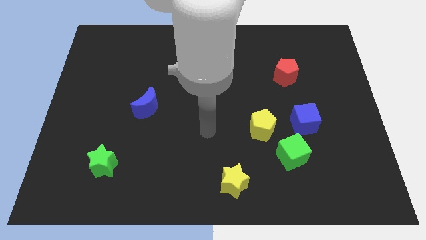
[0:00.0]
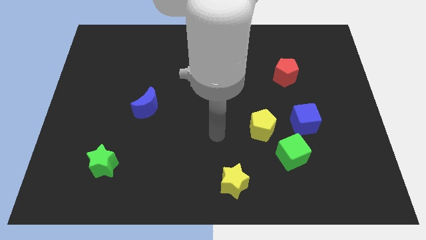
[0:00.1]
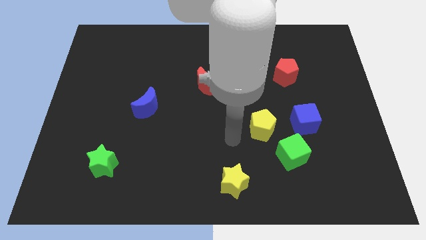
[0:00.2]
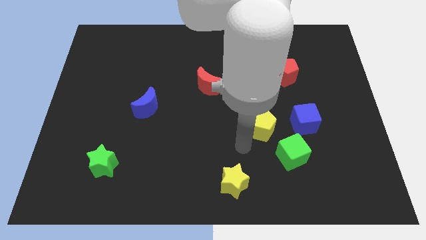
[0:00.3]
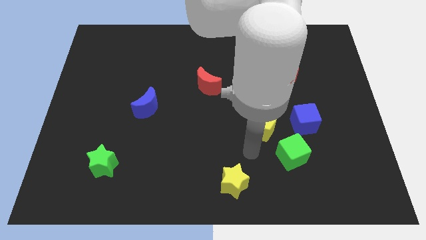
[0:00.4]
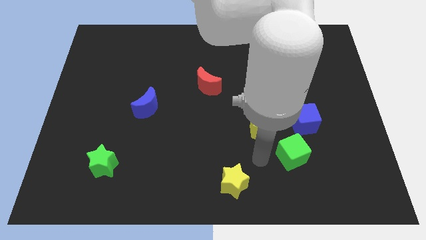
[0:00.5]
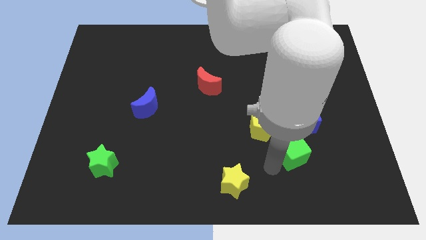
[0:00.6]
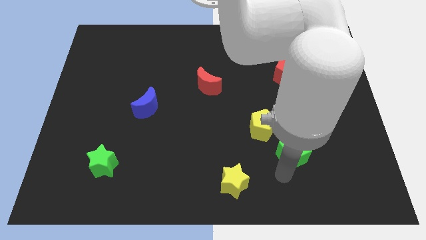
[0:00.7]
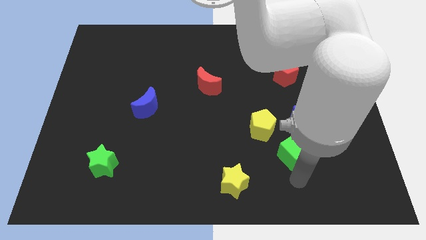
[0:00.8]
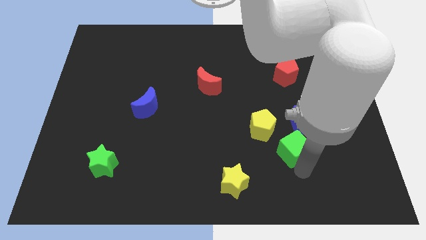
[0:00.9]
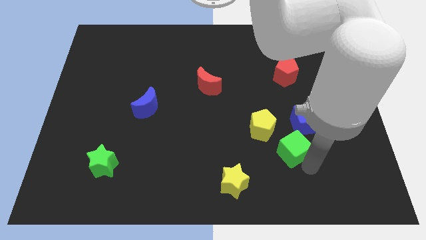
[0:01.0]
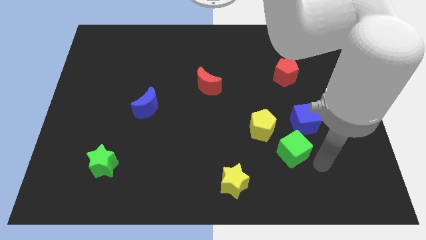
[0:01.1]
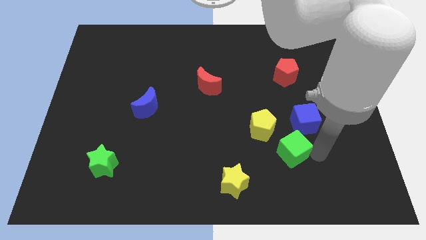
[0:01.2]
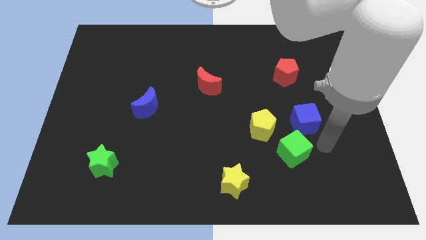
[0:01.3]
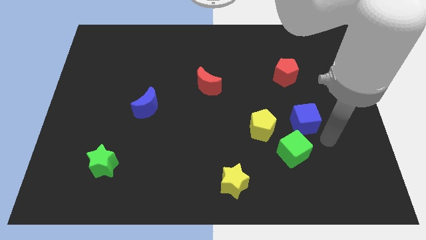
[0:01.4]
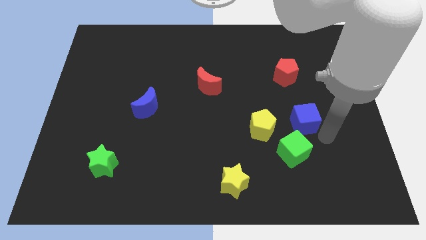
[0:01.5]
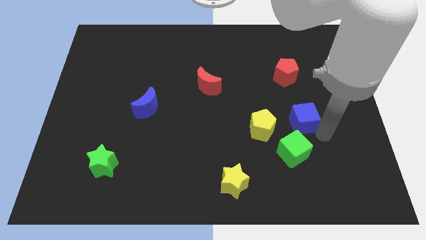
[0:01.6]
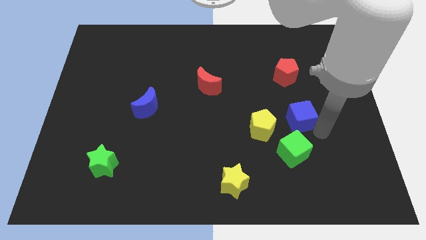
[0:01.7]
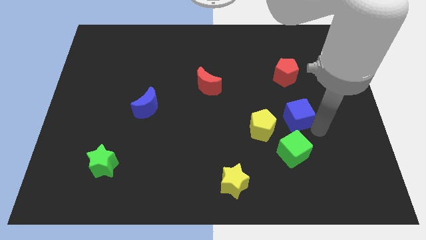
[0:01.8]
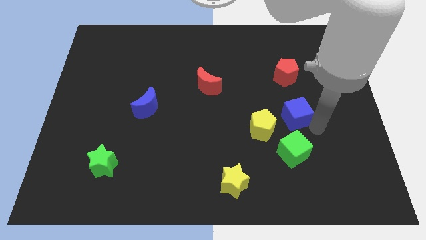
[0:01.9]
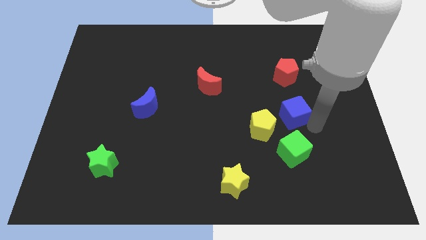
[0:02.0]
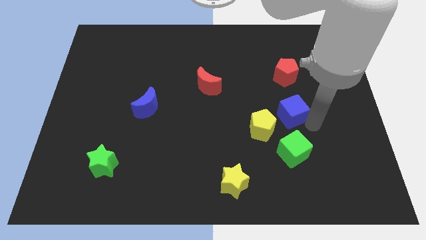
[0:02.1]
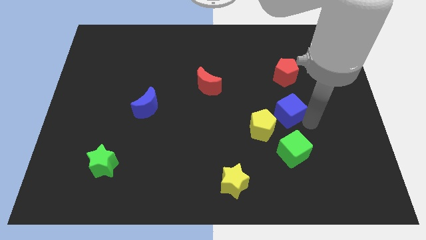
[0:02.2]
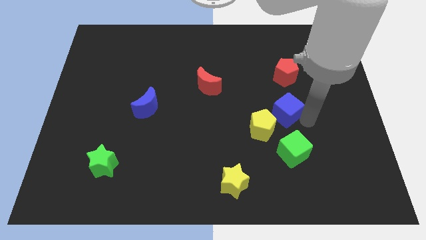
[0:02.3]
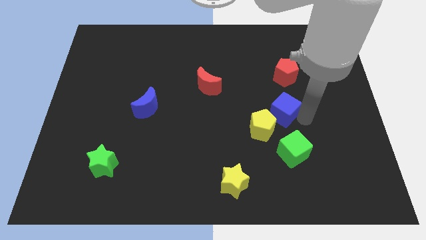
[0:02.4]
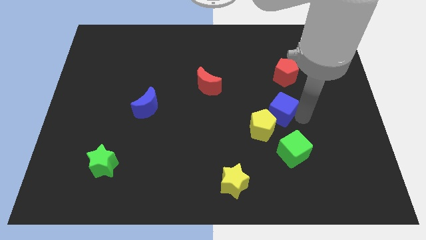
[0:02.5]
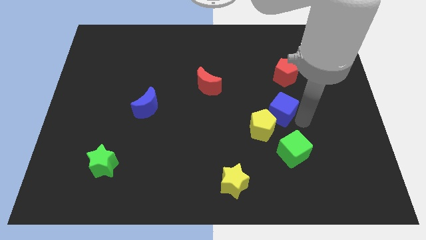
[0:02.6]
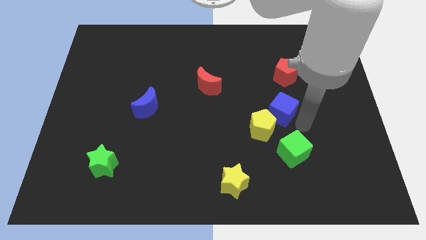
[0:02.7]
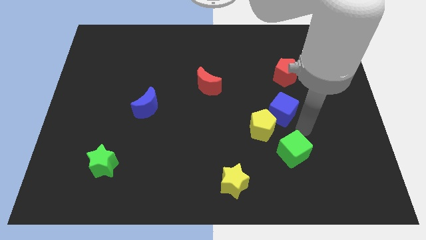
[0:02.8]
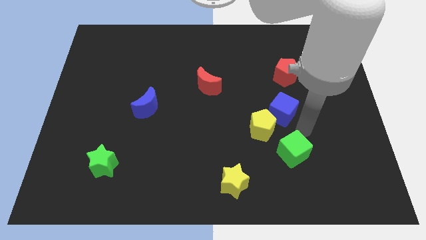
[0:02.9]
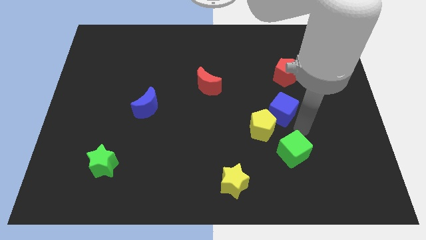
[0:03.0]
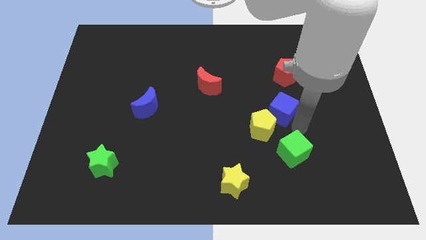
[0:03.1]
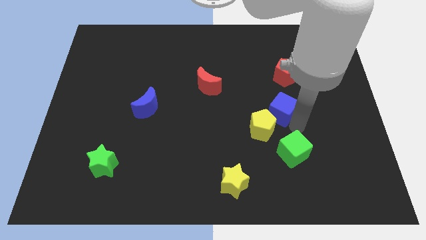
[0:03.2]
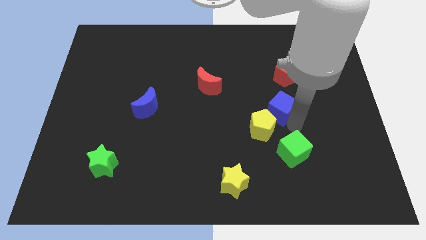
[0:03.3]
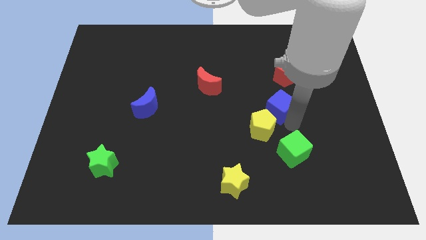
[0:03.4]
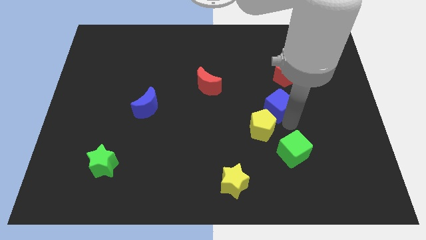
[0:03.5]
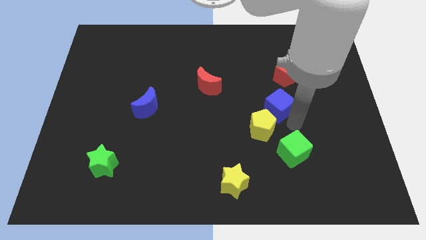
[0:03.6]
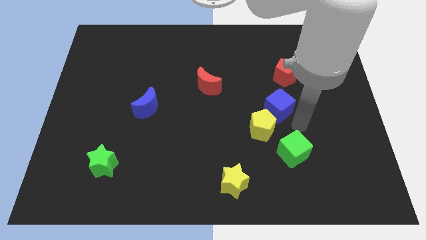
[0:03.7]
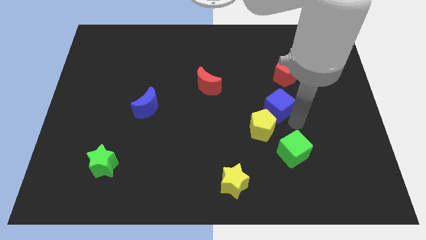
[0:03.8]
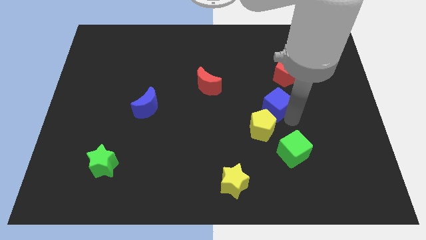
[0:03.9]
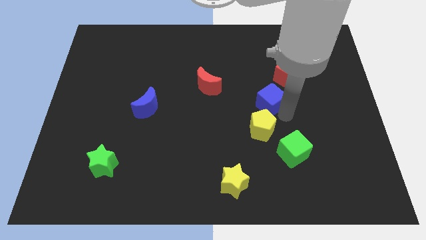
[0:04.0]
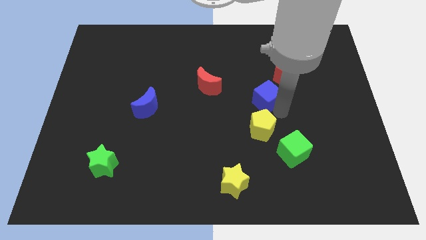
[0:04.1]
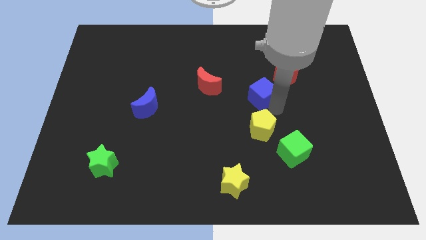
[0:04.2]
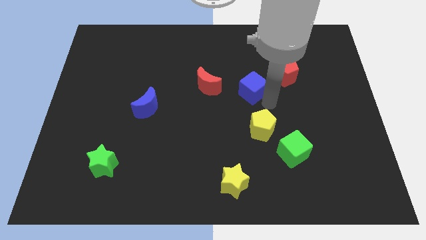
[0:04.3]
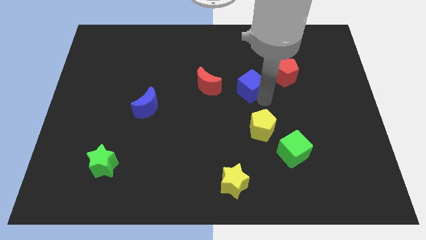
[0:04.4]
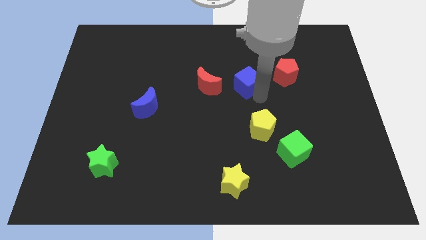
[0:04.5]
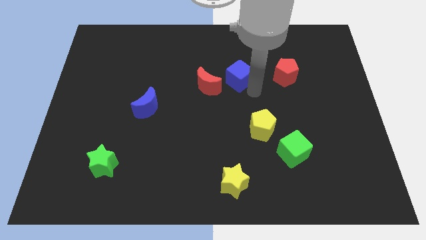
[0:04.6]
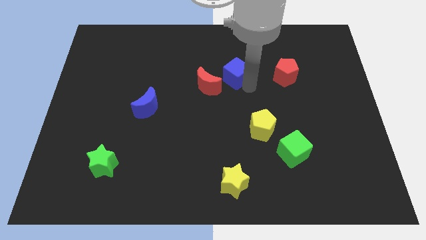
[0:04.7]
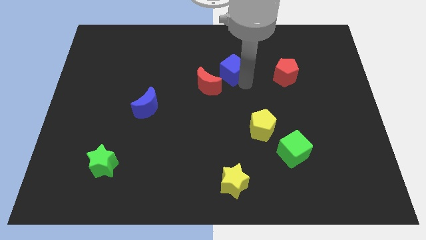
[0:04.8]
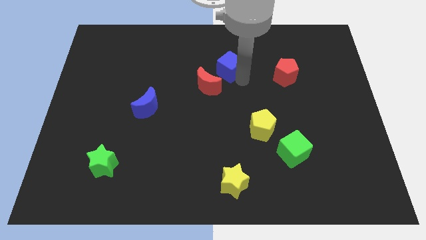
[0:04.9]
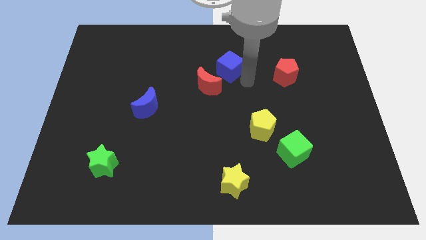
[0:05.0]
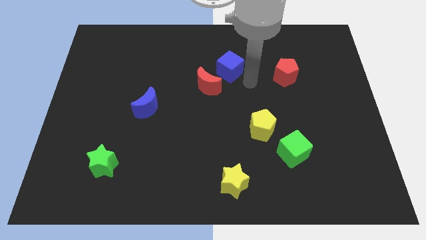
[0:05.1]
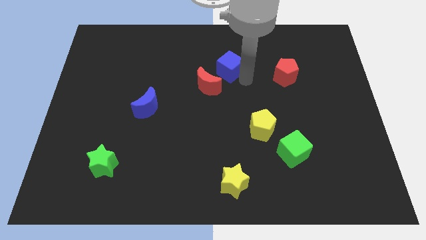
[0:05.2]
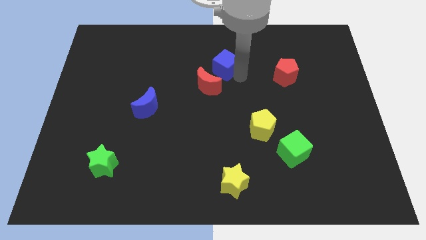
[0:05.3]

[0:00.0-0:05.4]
put the blue cube to the top of the red moon

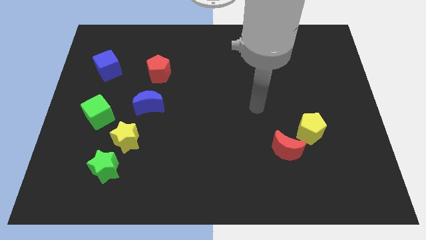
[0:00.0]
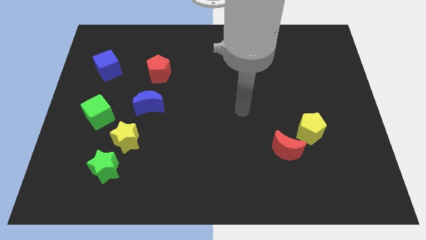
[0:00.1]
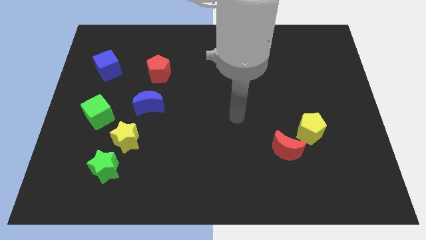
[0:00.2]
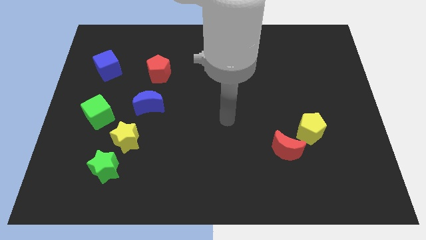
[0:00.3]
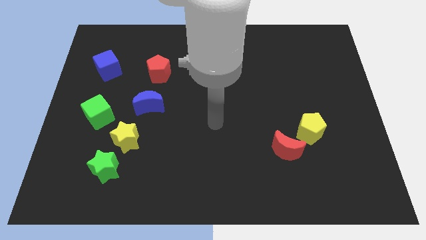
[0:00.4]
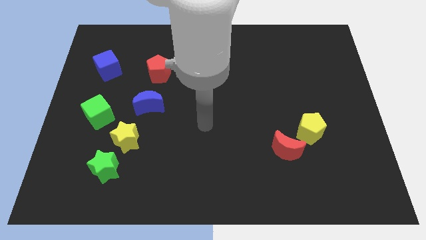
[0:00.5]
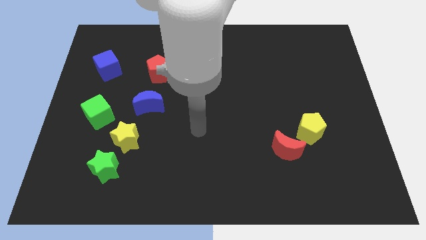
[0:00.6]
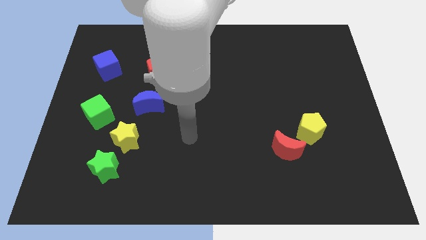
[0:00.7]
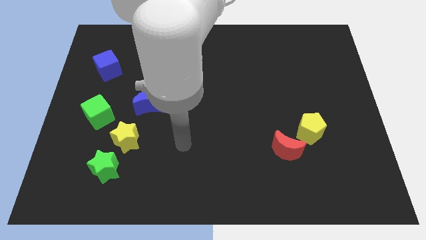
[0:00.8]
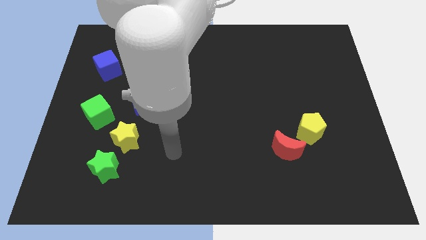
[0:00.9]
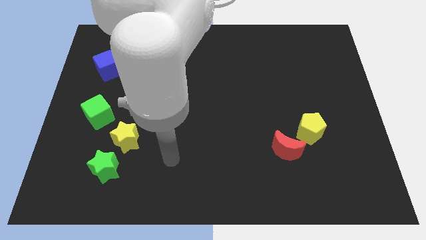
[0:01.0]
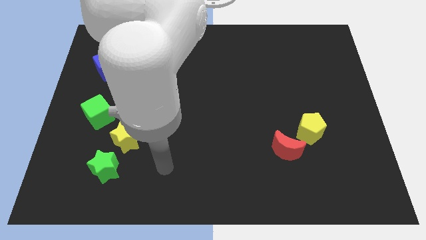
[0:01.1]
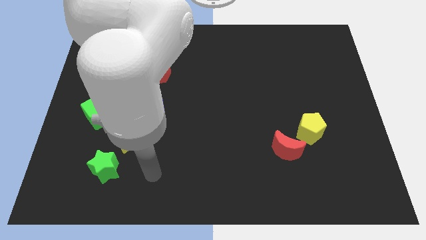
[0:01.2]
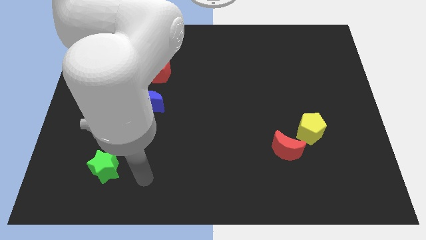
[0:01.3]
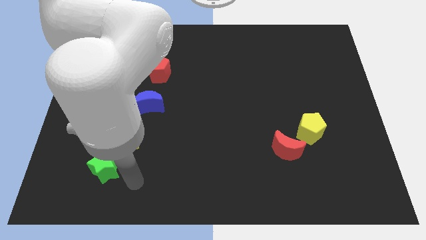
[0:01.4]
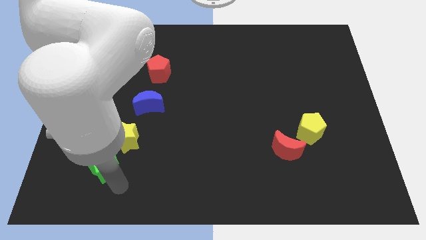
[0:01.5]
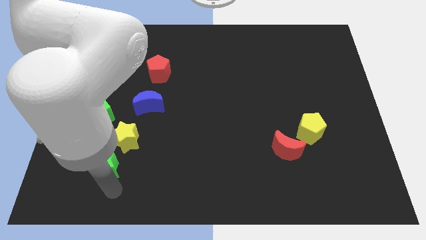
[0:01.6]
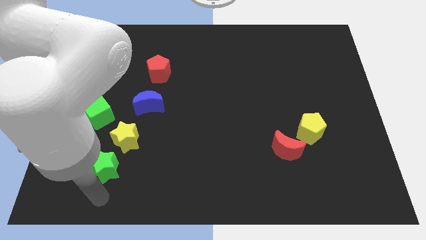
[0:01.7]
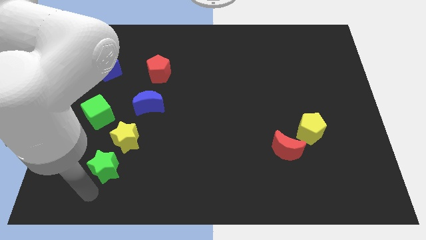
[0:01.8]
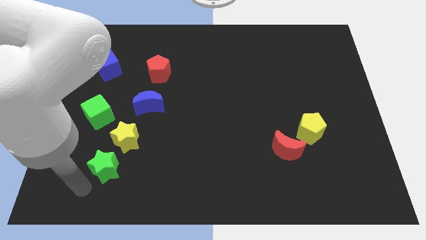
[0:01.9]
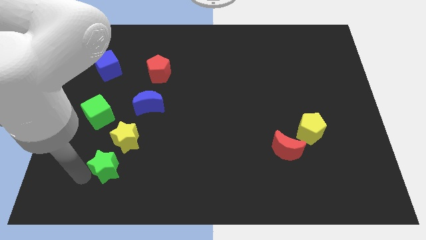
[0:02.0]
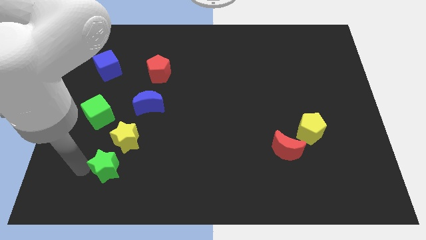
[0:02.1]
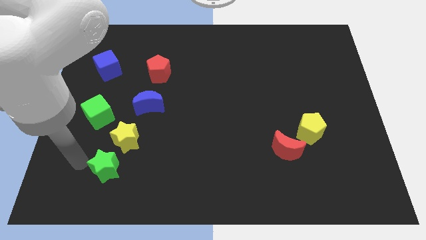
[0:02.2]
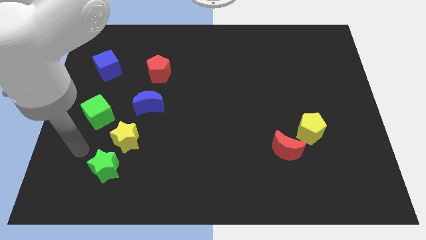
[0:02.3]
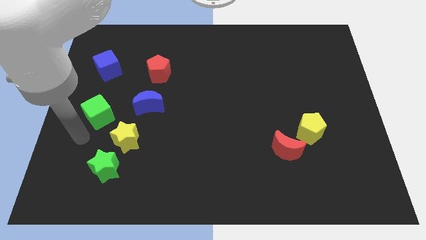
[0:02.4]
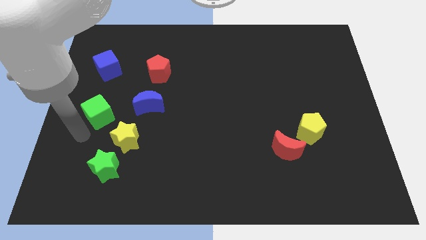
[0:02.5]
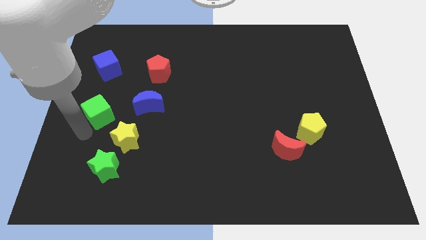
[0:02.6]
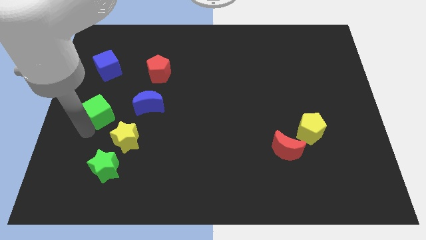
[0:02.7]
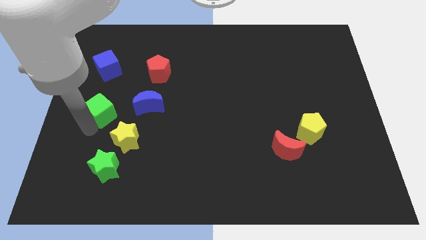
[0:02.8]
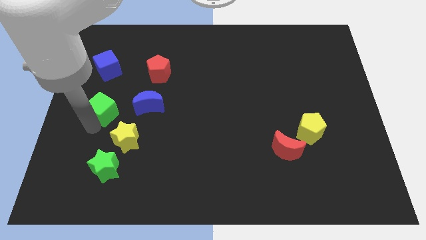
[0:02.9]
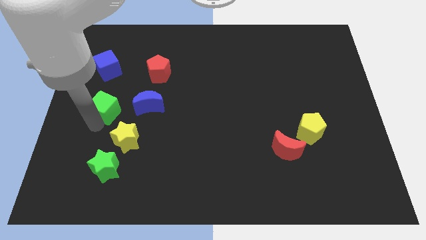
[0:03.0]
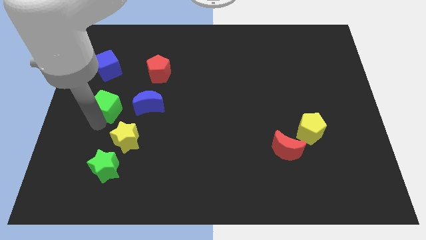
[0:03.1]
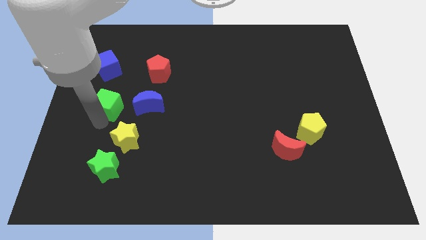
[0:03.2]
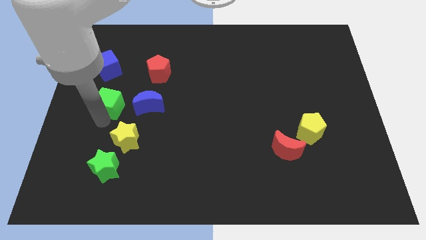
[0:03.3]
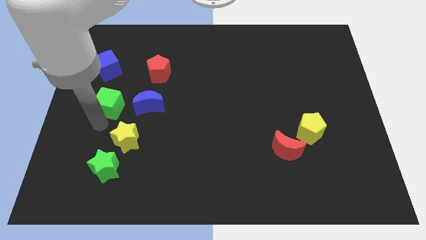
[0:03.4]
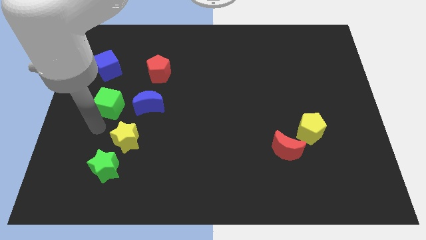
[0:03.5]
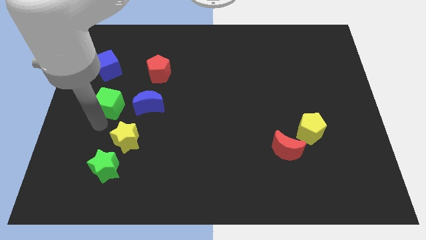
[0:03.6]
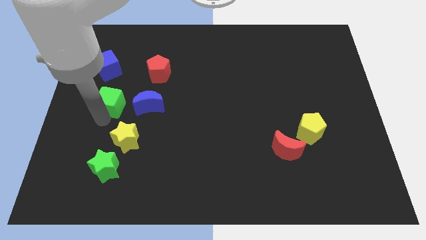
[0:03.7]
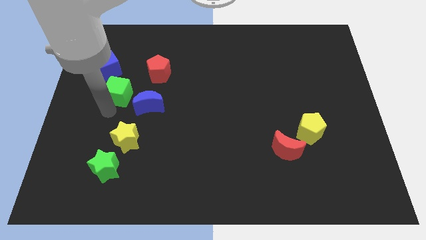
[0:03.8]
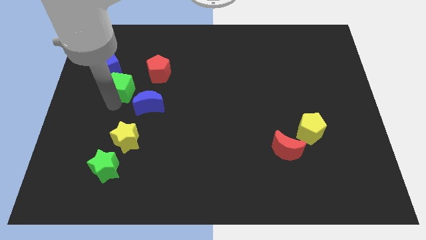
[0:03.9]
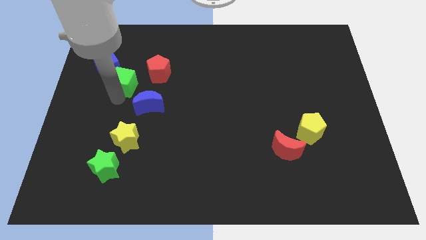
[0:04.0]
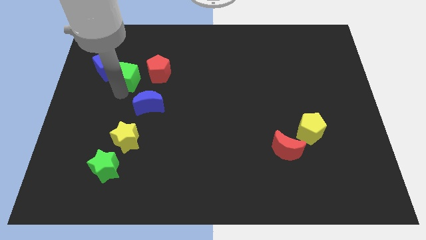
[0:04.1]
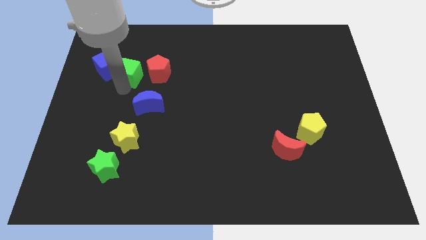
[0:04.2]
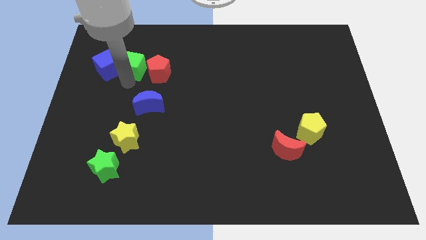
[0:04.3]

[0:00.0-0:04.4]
push the green cube to the top right side of the blue cube
